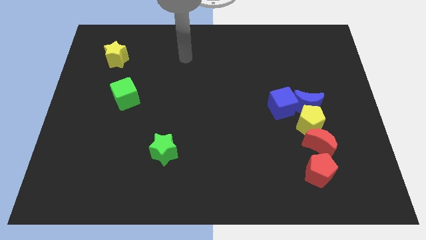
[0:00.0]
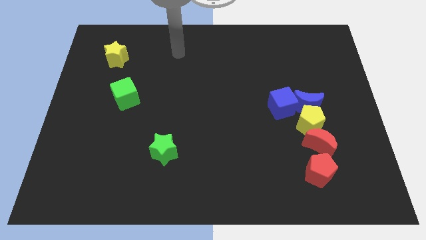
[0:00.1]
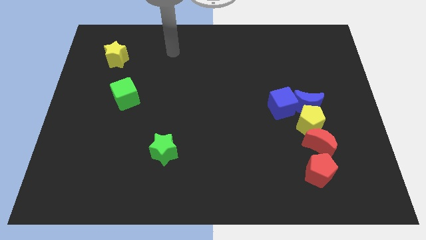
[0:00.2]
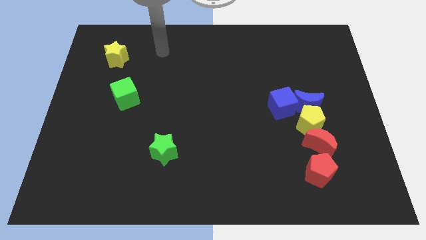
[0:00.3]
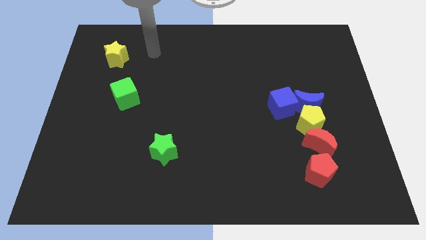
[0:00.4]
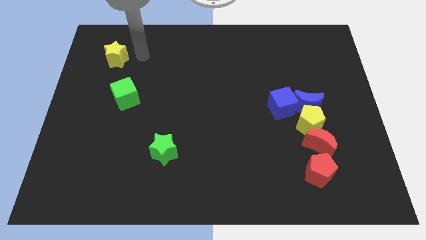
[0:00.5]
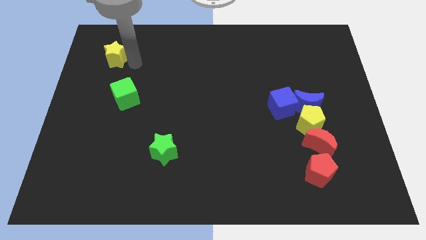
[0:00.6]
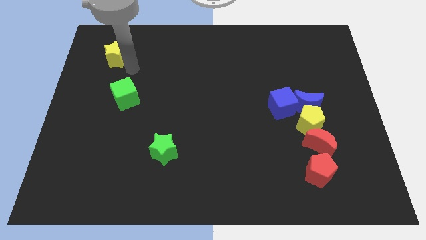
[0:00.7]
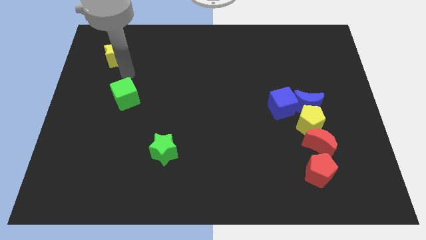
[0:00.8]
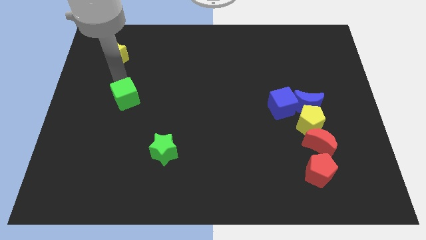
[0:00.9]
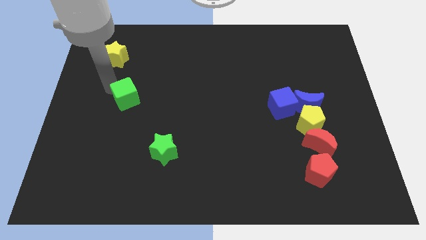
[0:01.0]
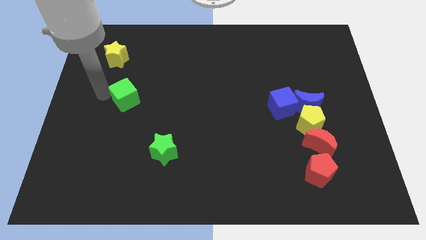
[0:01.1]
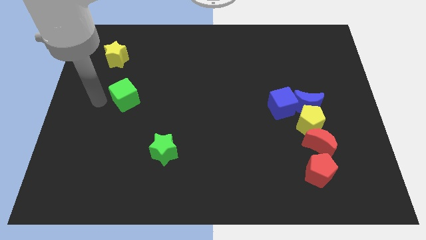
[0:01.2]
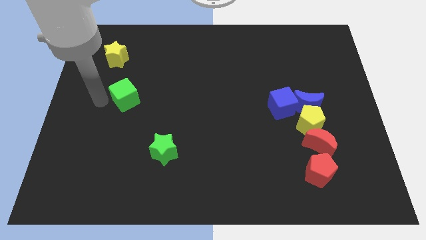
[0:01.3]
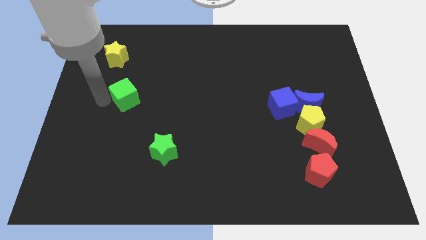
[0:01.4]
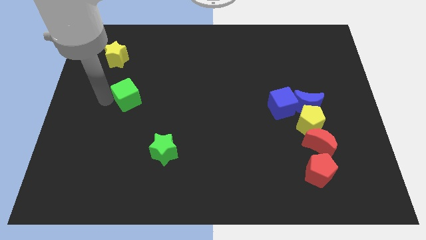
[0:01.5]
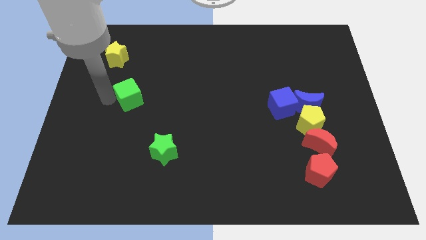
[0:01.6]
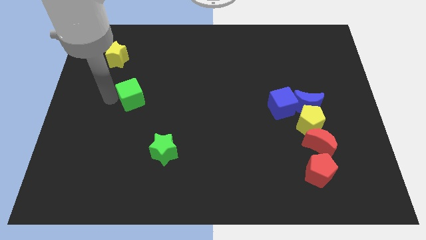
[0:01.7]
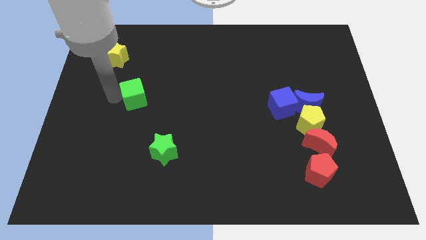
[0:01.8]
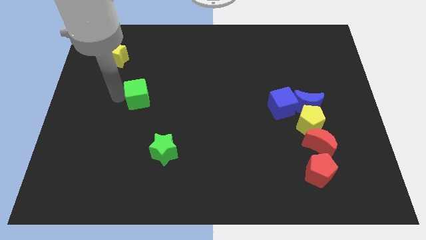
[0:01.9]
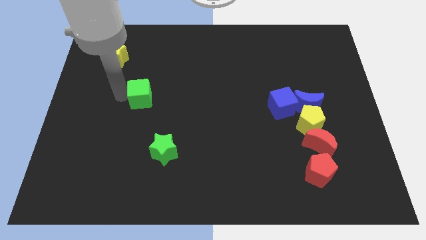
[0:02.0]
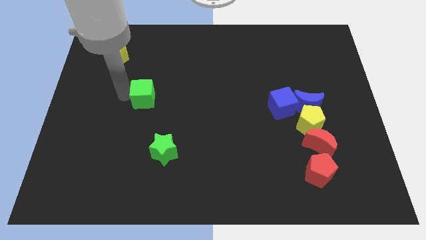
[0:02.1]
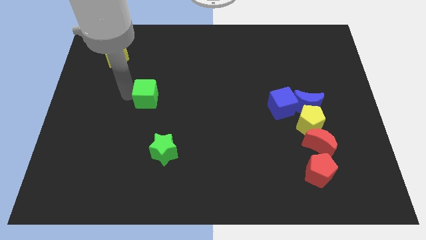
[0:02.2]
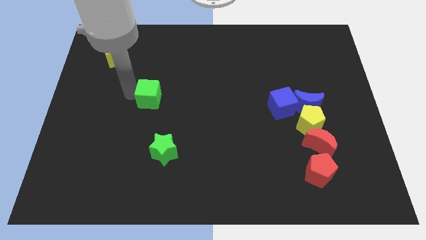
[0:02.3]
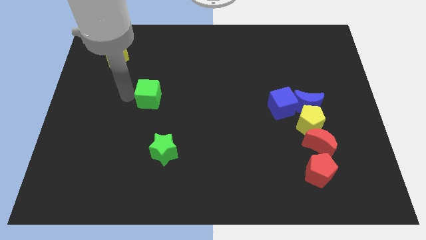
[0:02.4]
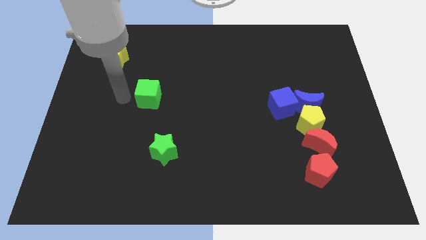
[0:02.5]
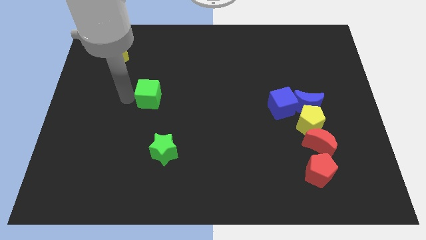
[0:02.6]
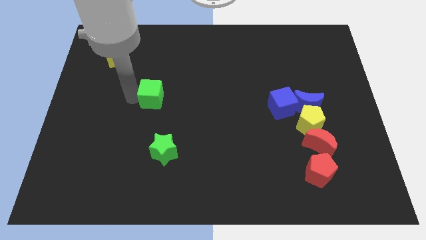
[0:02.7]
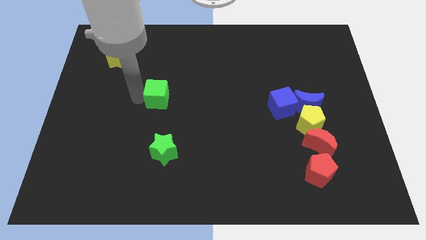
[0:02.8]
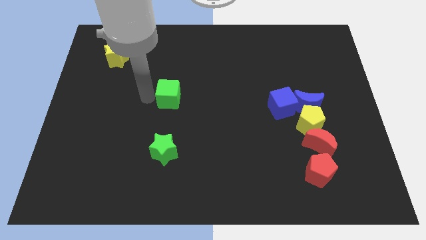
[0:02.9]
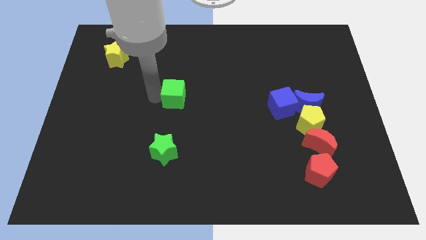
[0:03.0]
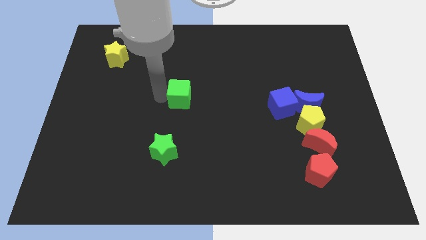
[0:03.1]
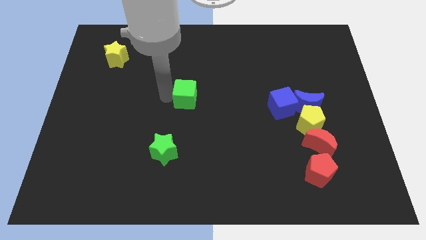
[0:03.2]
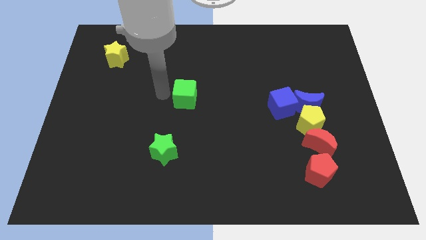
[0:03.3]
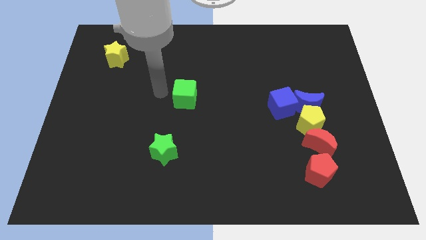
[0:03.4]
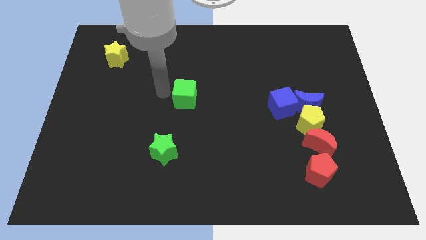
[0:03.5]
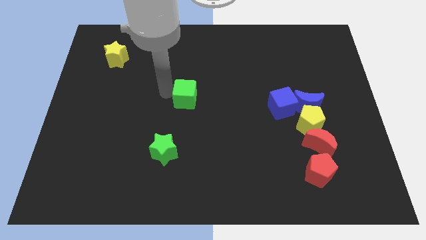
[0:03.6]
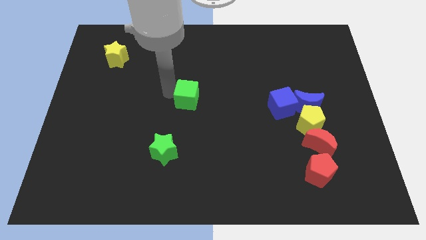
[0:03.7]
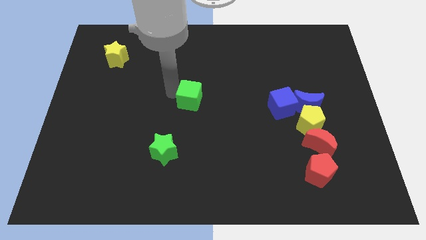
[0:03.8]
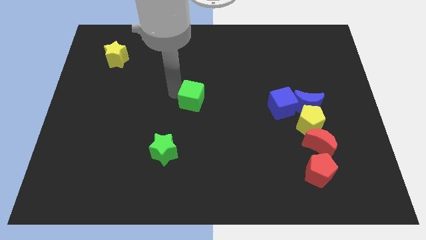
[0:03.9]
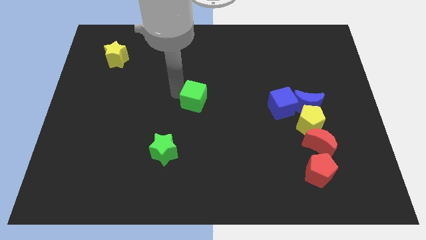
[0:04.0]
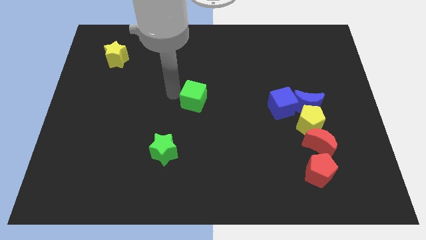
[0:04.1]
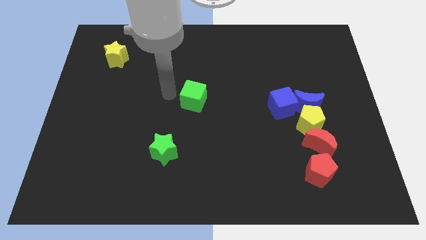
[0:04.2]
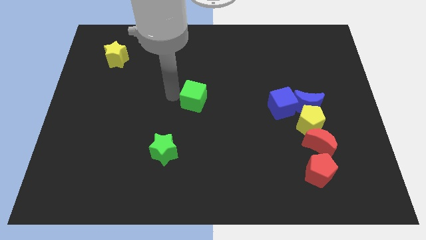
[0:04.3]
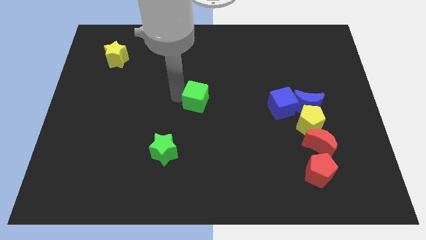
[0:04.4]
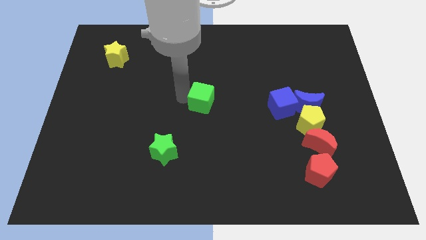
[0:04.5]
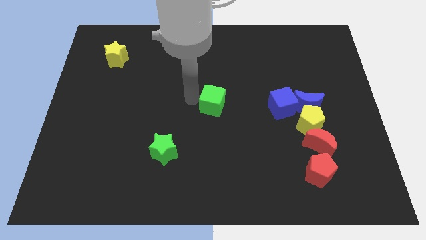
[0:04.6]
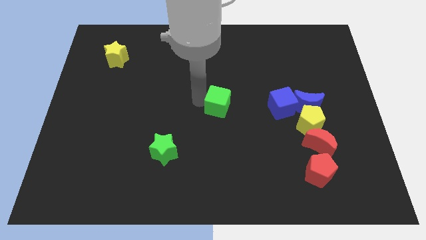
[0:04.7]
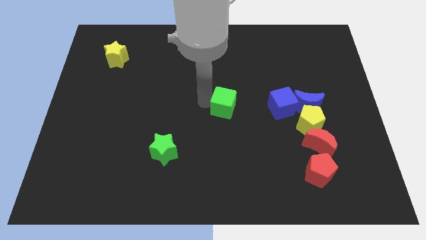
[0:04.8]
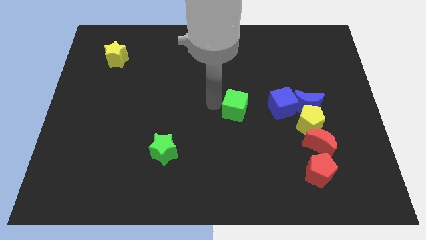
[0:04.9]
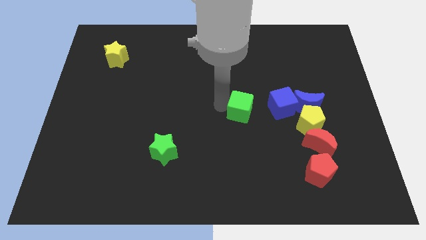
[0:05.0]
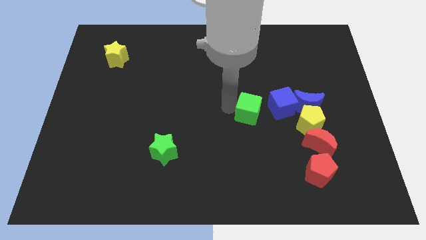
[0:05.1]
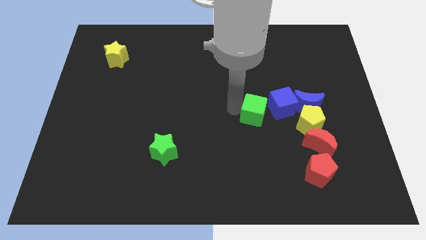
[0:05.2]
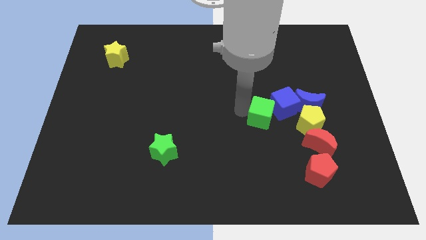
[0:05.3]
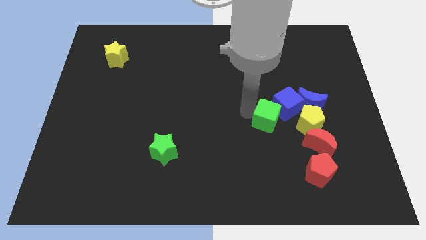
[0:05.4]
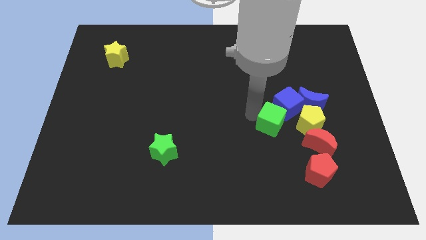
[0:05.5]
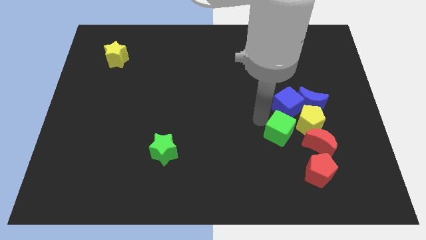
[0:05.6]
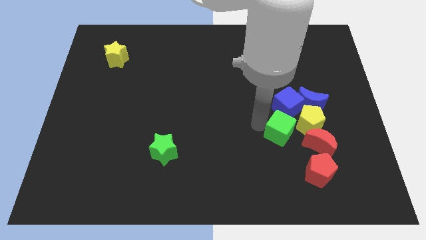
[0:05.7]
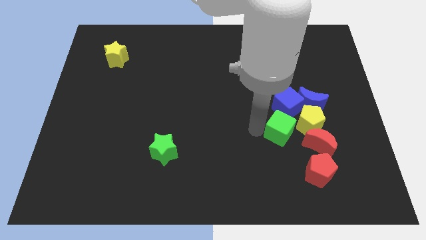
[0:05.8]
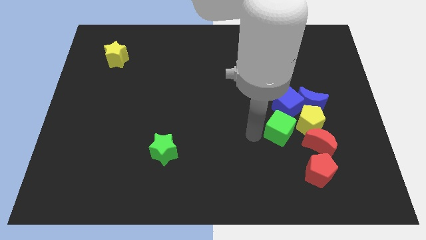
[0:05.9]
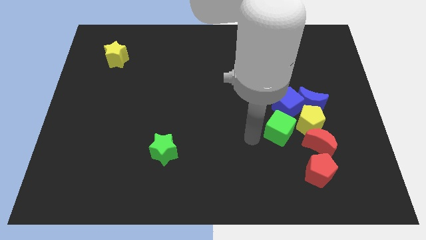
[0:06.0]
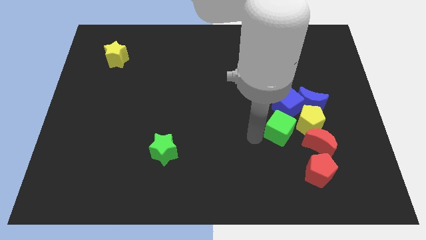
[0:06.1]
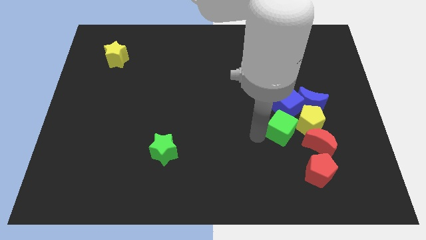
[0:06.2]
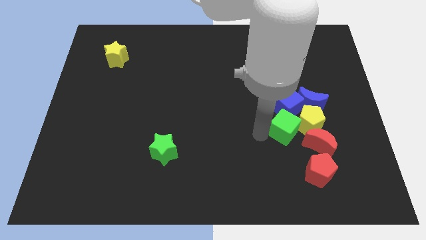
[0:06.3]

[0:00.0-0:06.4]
slide the green cube towards the yellow pentagon

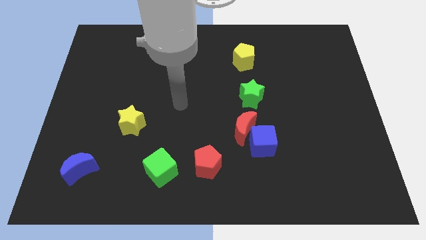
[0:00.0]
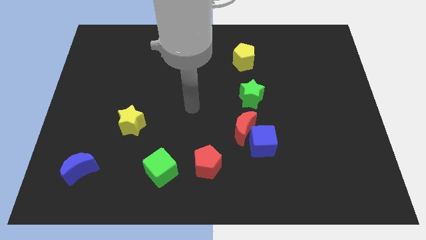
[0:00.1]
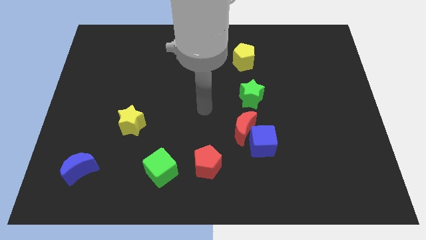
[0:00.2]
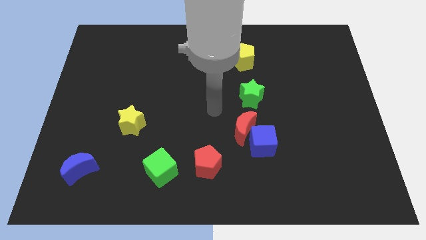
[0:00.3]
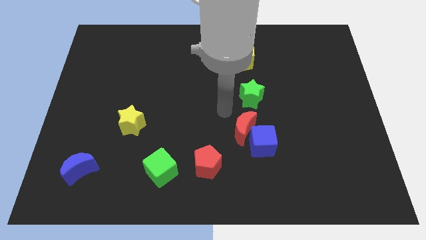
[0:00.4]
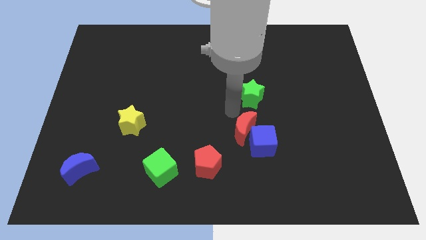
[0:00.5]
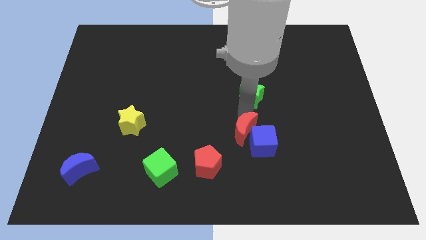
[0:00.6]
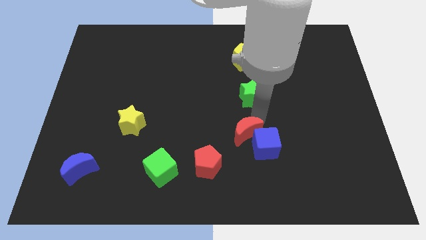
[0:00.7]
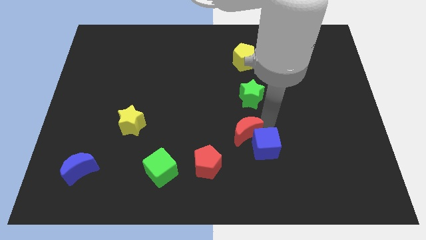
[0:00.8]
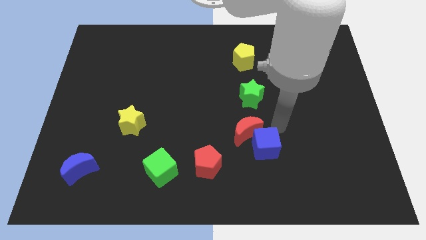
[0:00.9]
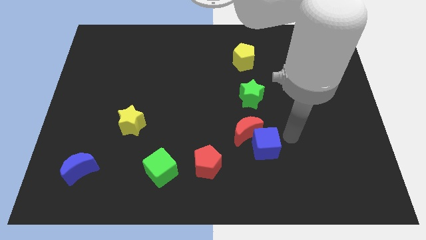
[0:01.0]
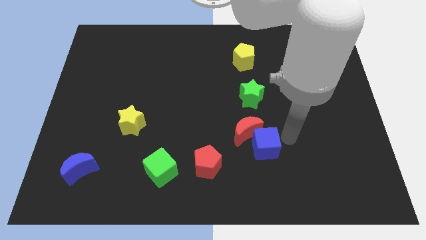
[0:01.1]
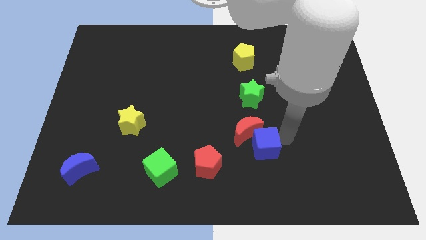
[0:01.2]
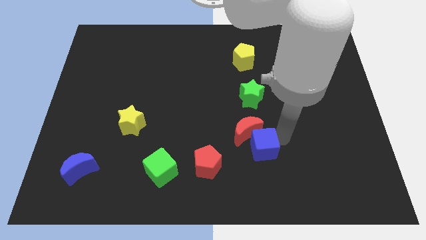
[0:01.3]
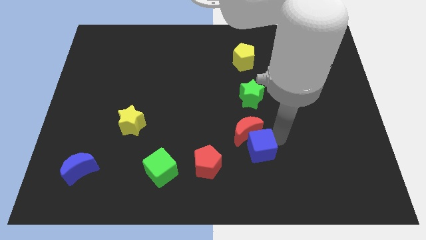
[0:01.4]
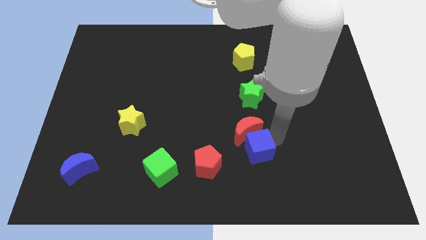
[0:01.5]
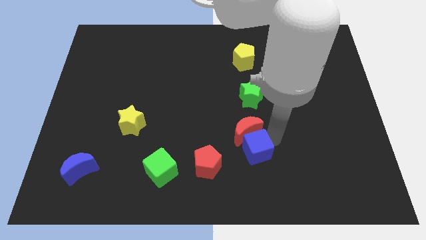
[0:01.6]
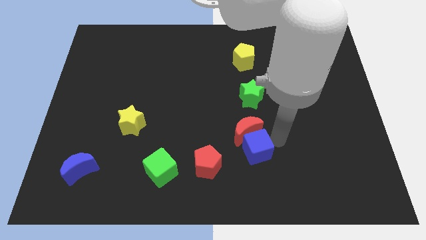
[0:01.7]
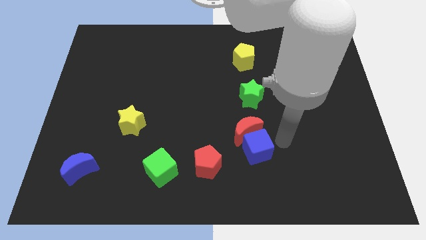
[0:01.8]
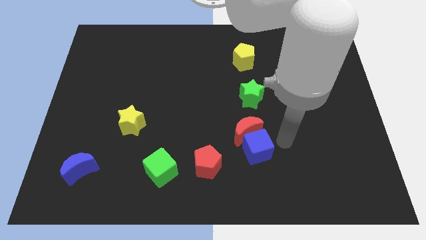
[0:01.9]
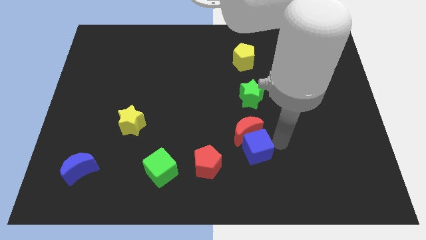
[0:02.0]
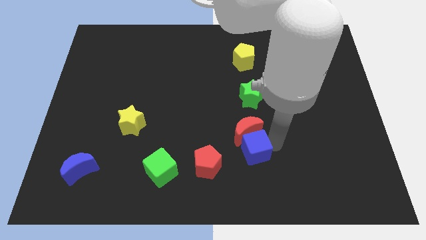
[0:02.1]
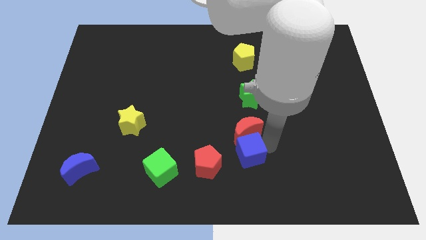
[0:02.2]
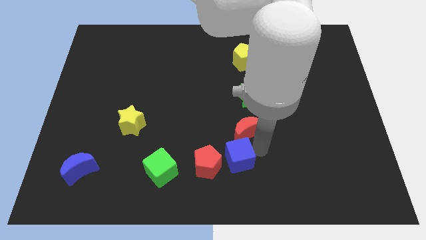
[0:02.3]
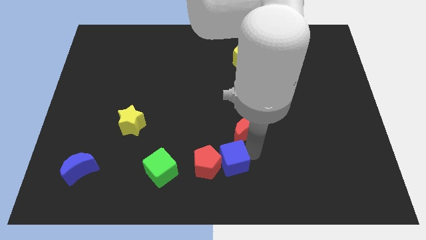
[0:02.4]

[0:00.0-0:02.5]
slide the blue cube towards the red pentagon
